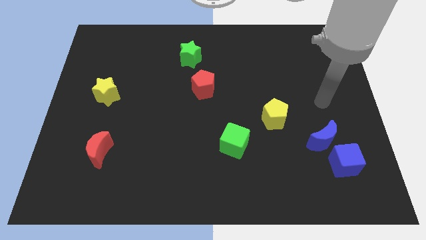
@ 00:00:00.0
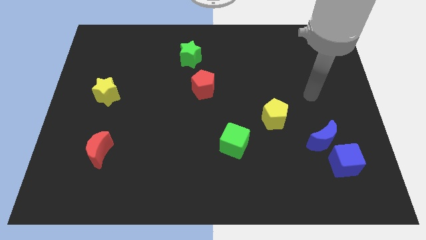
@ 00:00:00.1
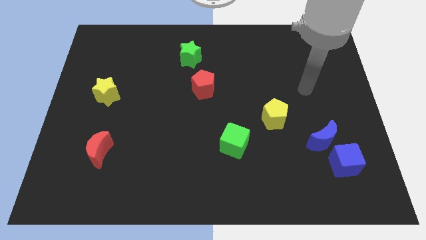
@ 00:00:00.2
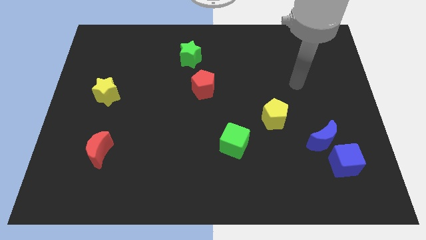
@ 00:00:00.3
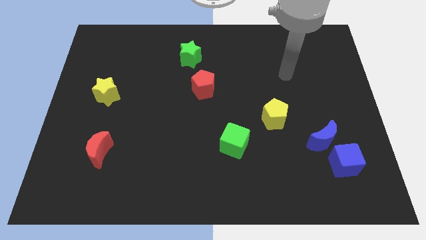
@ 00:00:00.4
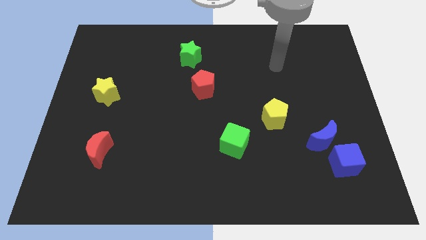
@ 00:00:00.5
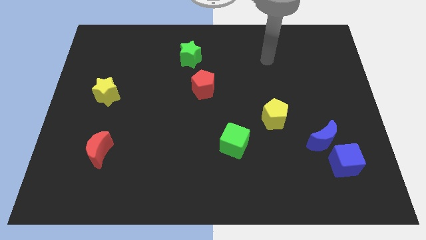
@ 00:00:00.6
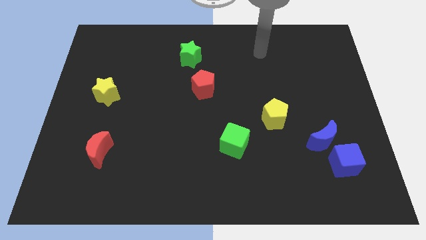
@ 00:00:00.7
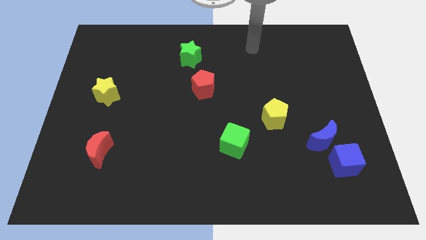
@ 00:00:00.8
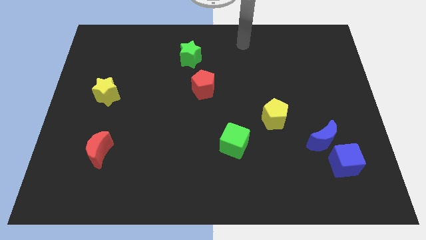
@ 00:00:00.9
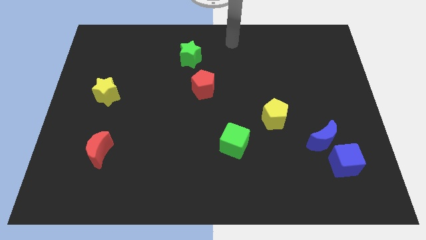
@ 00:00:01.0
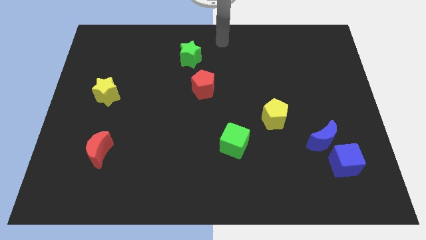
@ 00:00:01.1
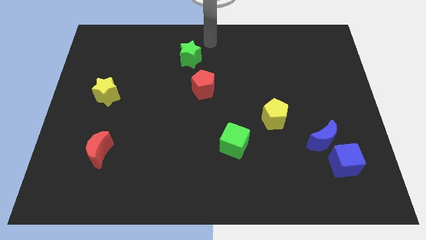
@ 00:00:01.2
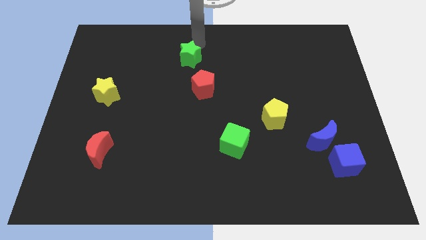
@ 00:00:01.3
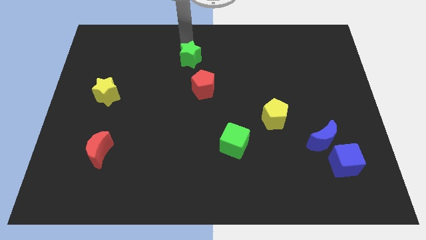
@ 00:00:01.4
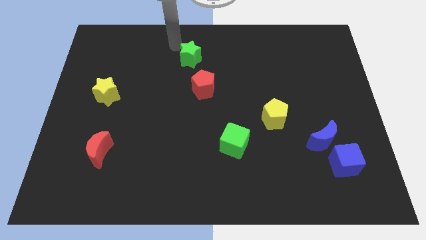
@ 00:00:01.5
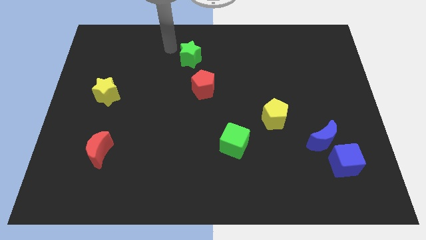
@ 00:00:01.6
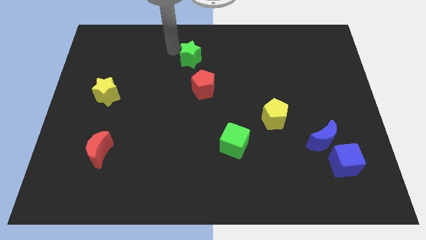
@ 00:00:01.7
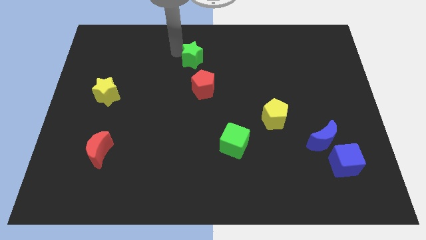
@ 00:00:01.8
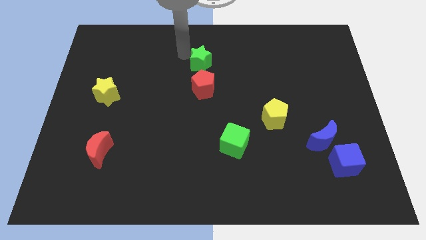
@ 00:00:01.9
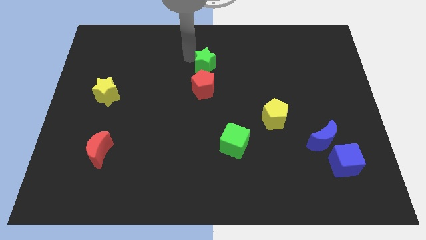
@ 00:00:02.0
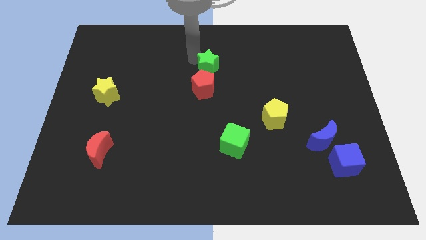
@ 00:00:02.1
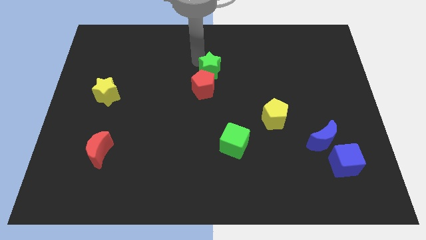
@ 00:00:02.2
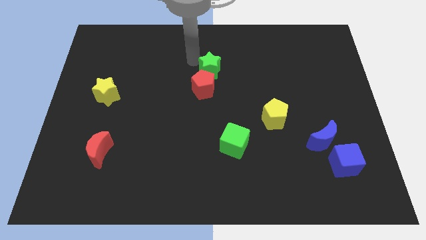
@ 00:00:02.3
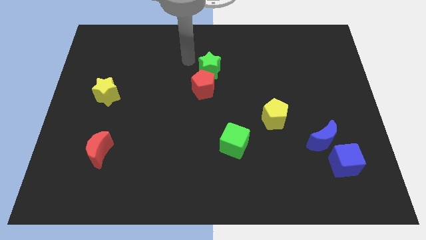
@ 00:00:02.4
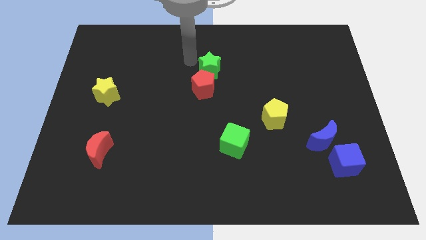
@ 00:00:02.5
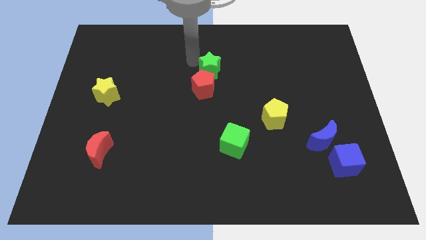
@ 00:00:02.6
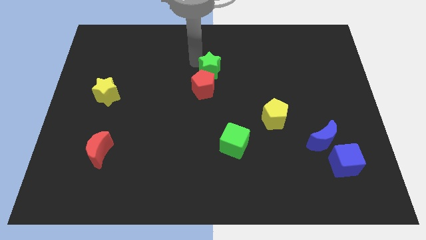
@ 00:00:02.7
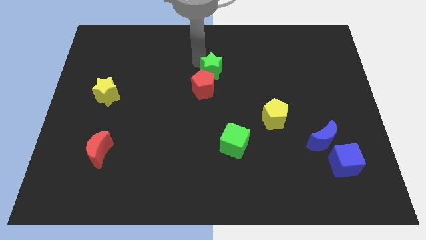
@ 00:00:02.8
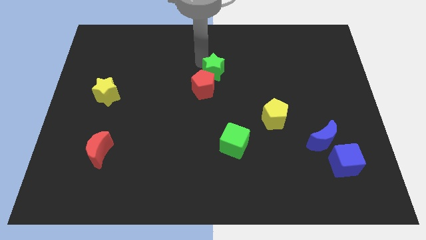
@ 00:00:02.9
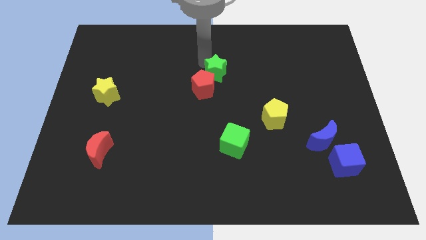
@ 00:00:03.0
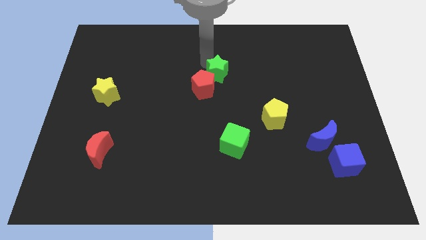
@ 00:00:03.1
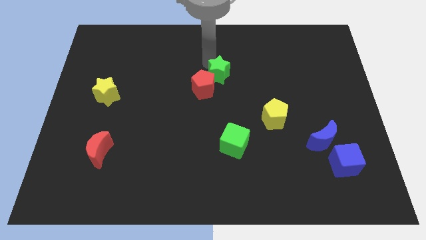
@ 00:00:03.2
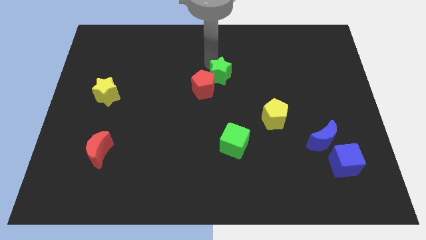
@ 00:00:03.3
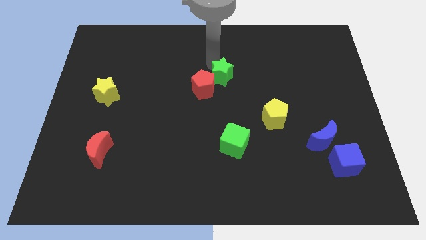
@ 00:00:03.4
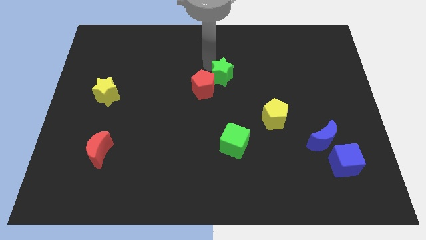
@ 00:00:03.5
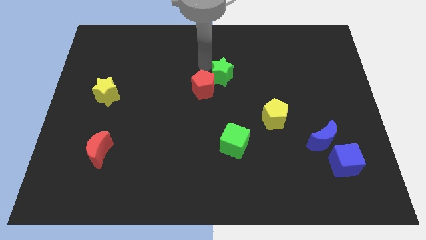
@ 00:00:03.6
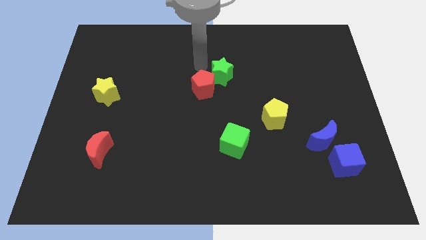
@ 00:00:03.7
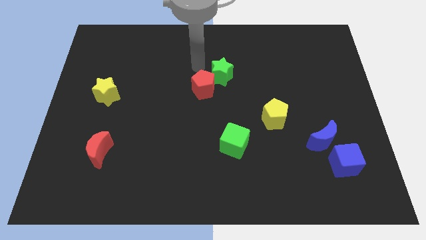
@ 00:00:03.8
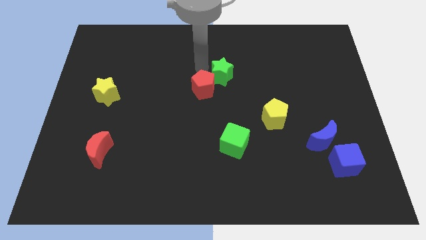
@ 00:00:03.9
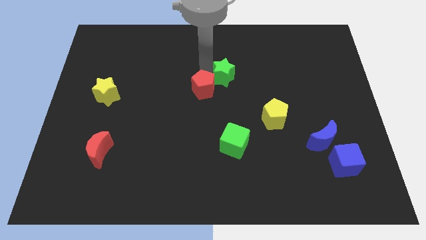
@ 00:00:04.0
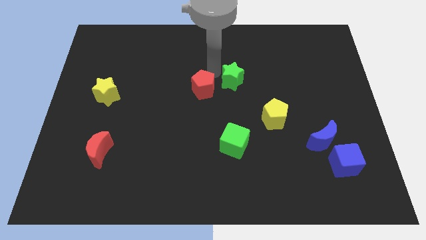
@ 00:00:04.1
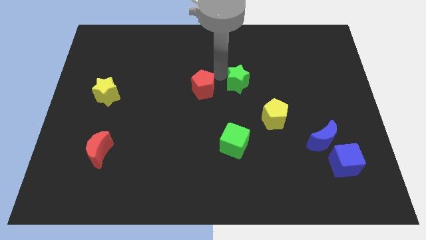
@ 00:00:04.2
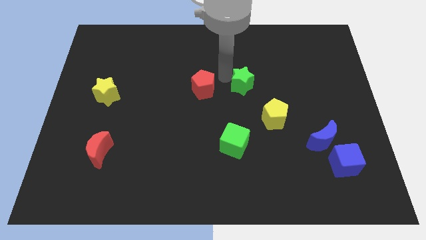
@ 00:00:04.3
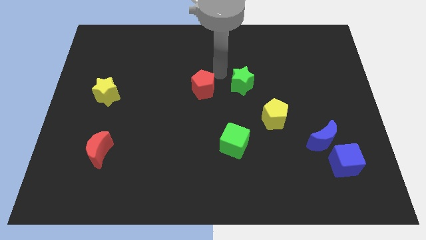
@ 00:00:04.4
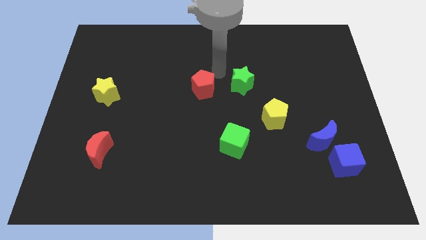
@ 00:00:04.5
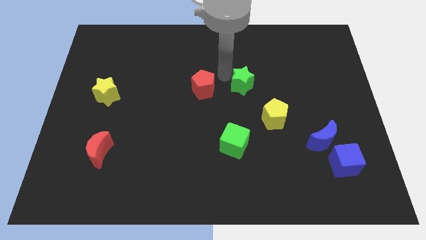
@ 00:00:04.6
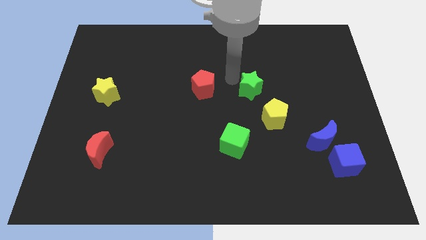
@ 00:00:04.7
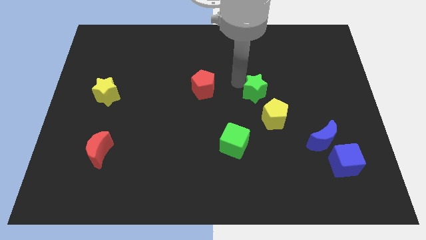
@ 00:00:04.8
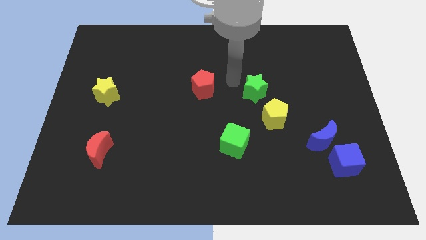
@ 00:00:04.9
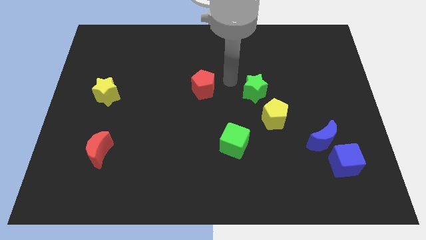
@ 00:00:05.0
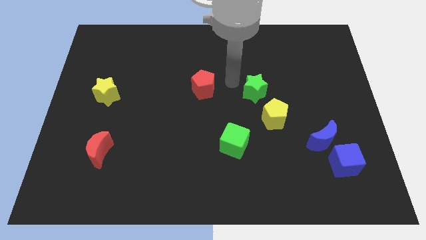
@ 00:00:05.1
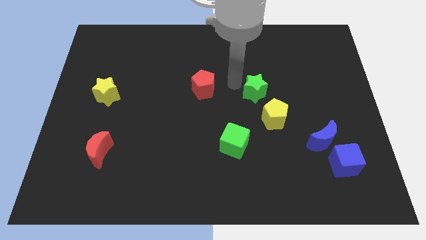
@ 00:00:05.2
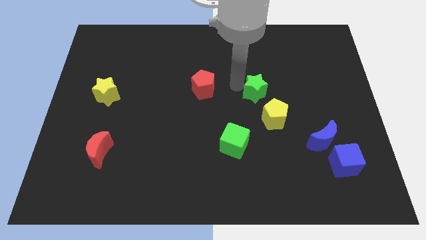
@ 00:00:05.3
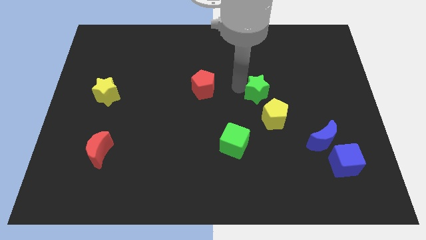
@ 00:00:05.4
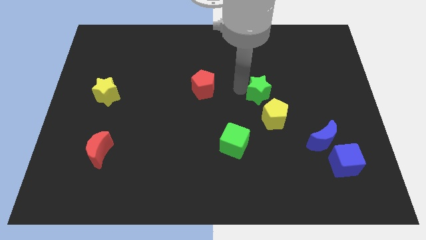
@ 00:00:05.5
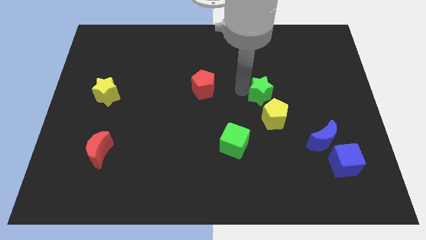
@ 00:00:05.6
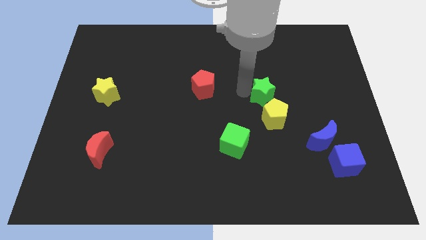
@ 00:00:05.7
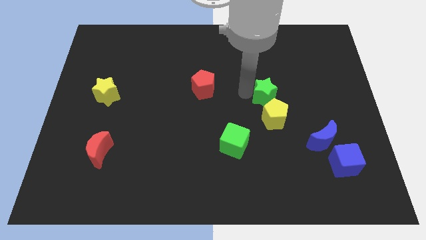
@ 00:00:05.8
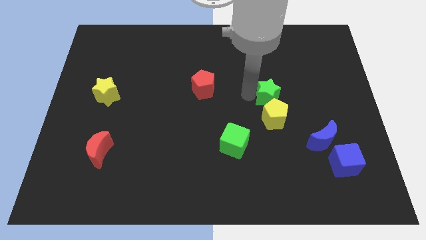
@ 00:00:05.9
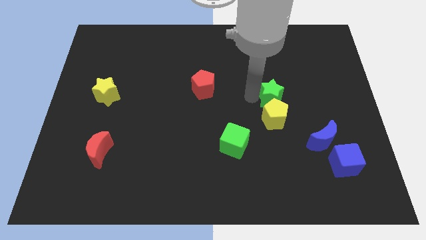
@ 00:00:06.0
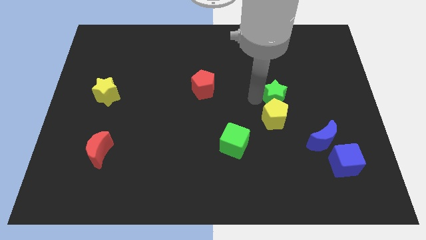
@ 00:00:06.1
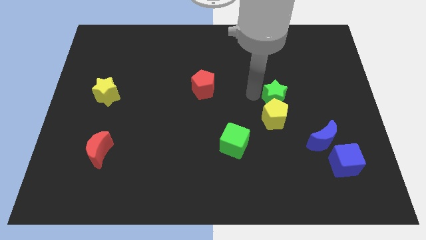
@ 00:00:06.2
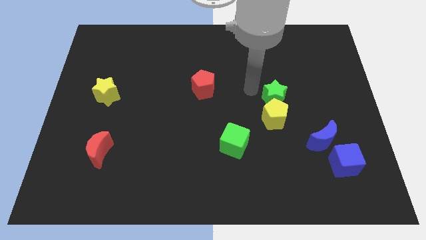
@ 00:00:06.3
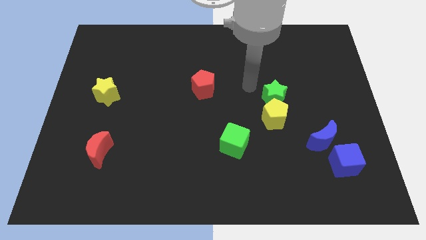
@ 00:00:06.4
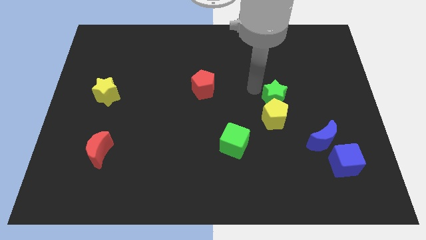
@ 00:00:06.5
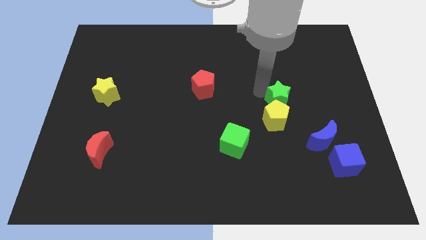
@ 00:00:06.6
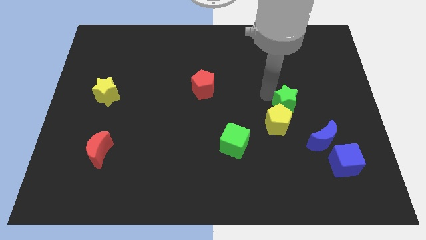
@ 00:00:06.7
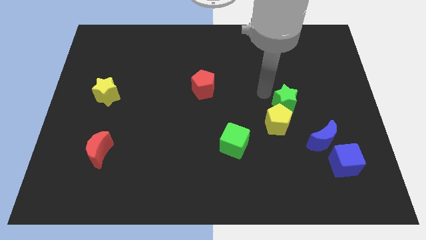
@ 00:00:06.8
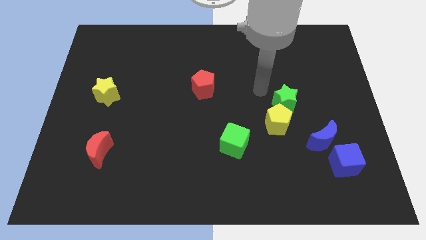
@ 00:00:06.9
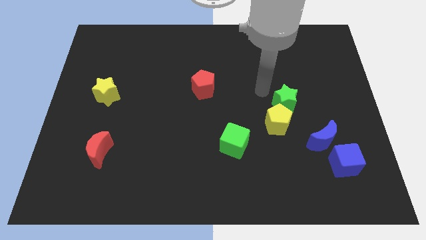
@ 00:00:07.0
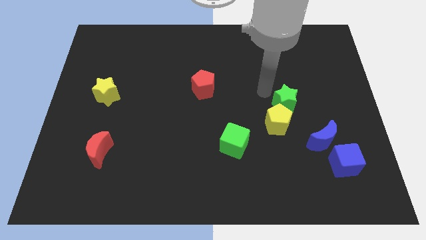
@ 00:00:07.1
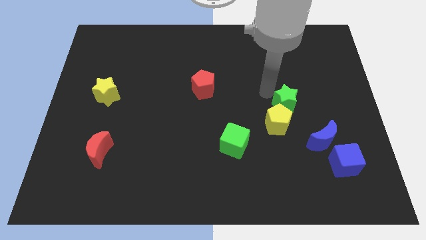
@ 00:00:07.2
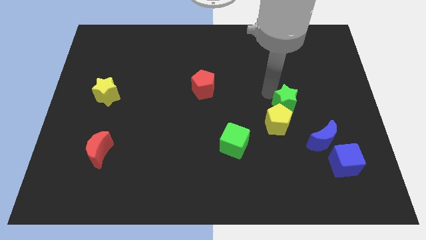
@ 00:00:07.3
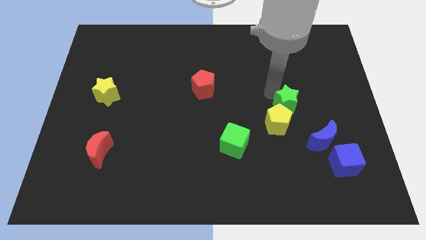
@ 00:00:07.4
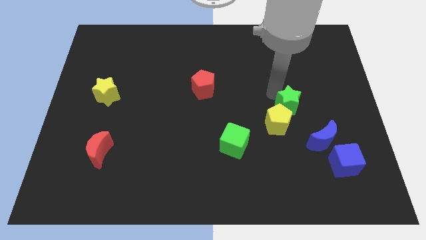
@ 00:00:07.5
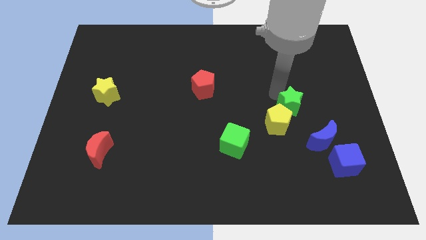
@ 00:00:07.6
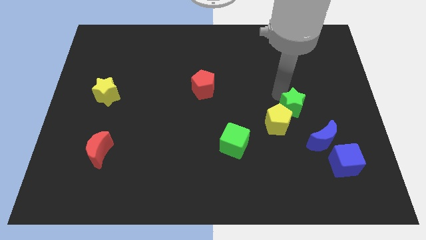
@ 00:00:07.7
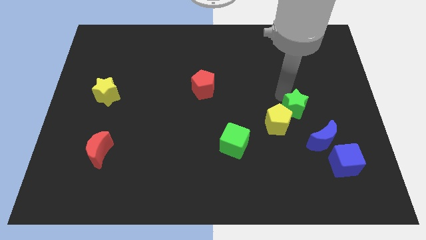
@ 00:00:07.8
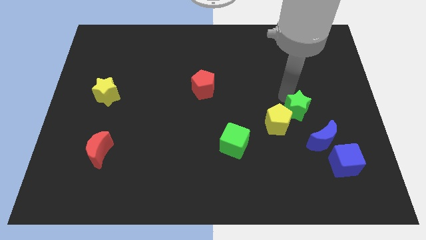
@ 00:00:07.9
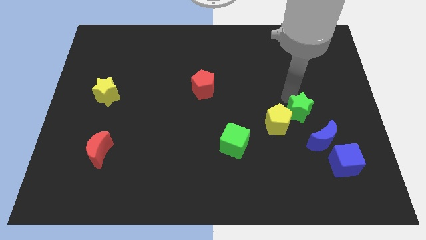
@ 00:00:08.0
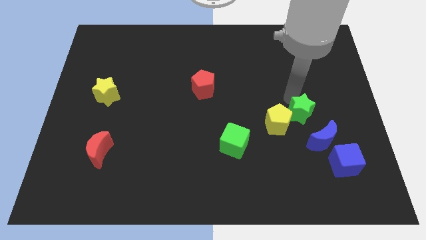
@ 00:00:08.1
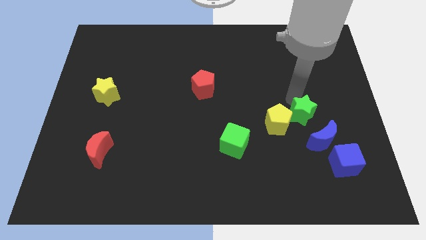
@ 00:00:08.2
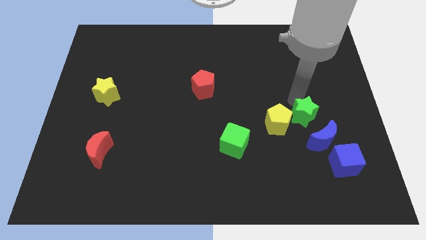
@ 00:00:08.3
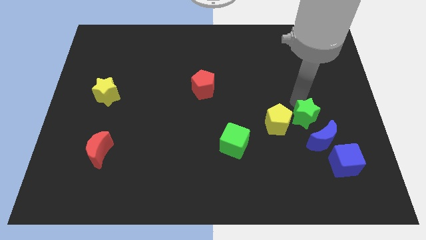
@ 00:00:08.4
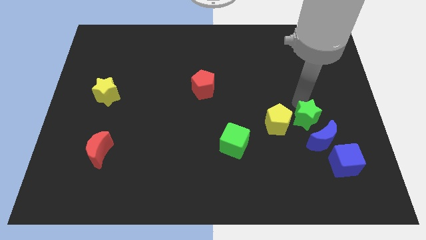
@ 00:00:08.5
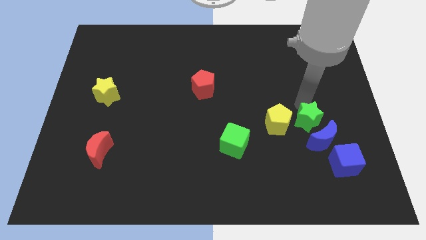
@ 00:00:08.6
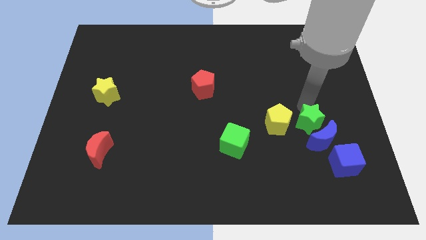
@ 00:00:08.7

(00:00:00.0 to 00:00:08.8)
put the green star to the blue moon
